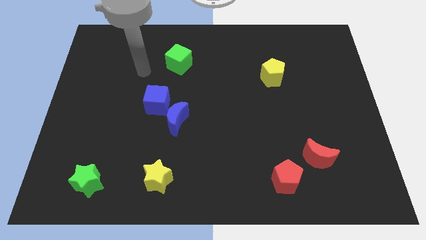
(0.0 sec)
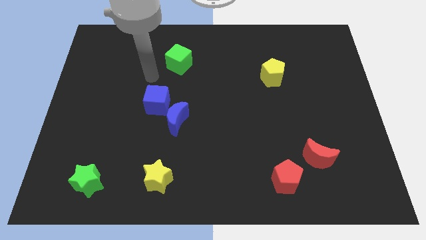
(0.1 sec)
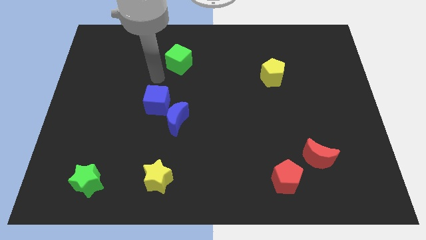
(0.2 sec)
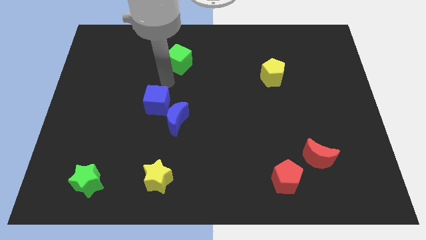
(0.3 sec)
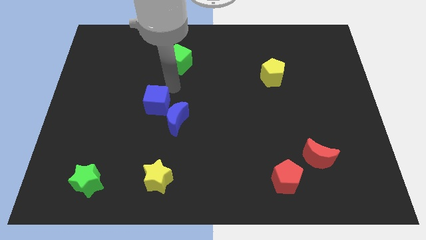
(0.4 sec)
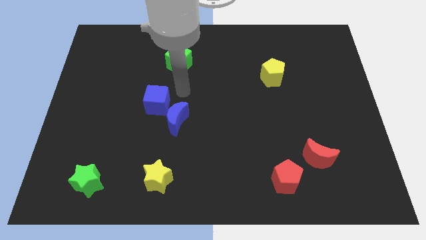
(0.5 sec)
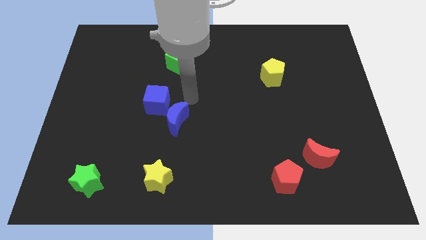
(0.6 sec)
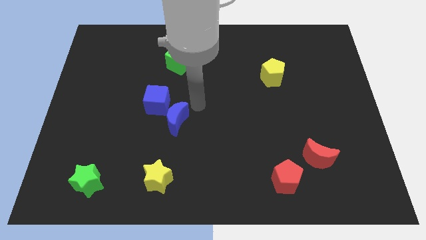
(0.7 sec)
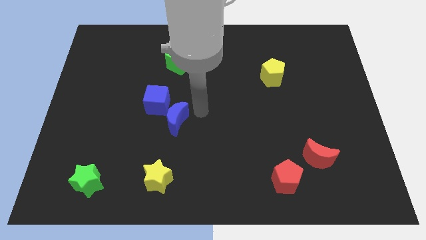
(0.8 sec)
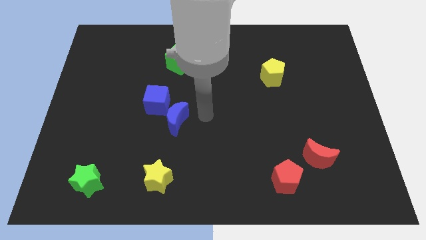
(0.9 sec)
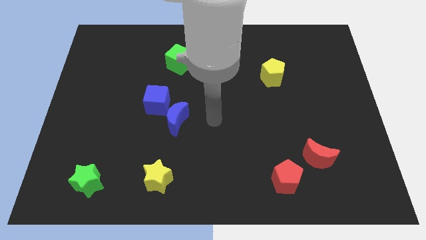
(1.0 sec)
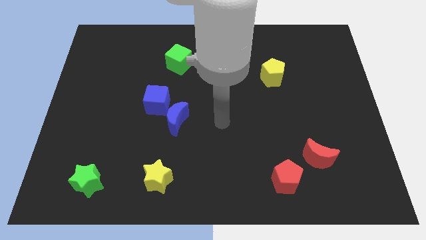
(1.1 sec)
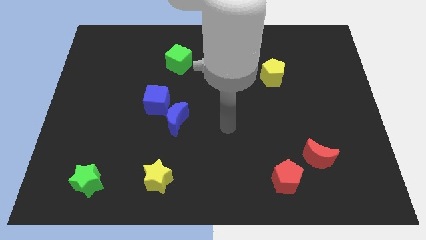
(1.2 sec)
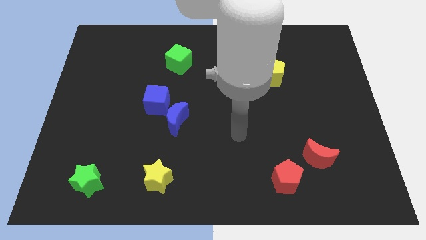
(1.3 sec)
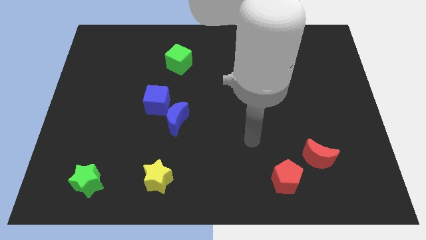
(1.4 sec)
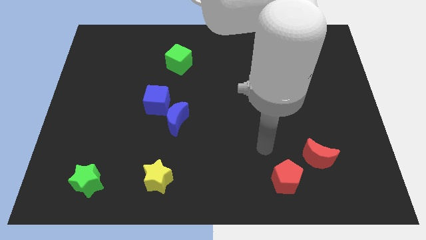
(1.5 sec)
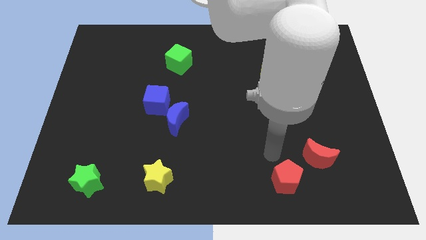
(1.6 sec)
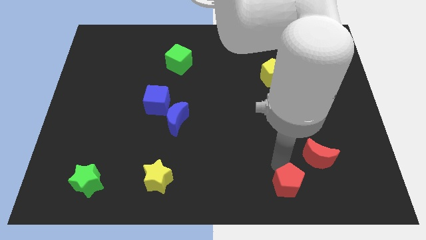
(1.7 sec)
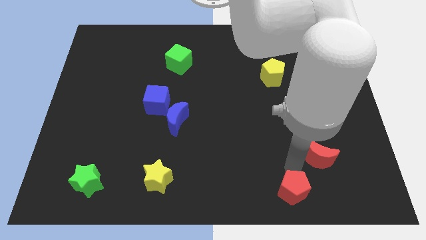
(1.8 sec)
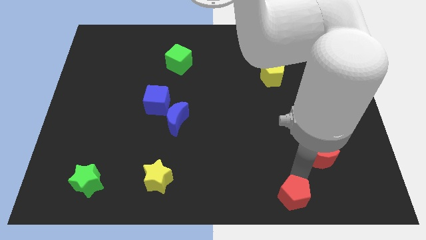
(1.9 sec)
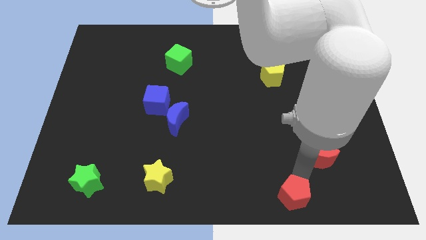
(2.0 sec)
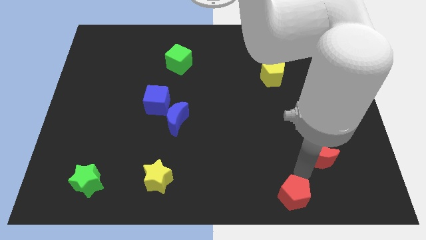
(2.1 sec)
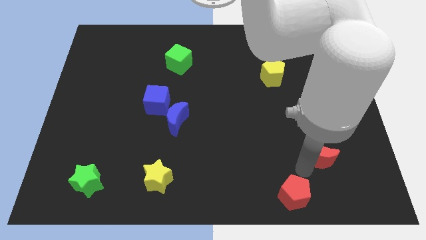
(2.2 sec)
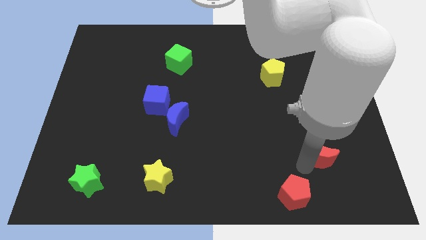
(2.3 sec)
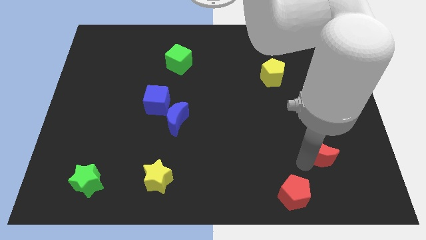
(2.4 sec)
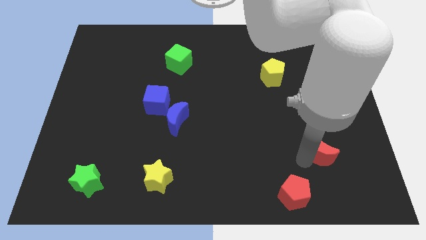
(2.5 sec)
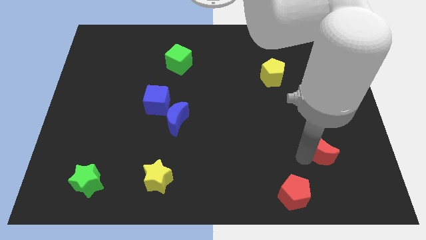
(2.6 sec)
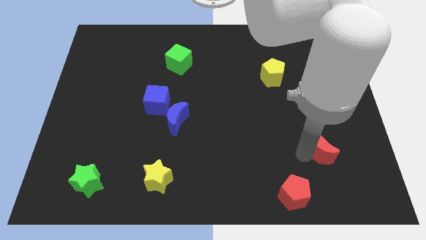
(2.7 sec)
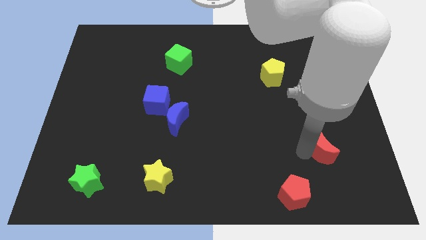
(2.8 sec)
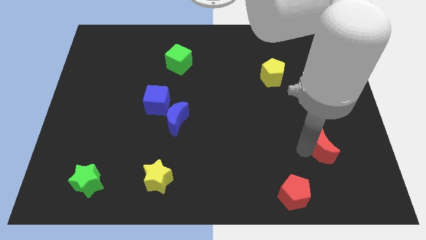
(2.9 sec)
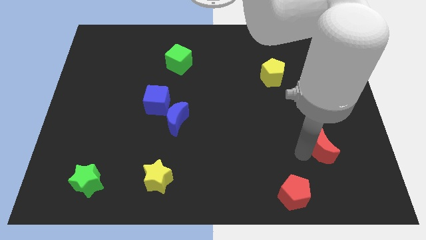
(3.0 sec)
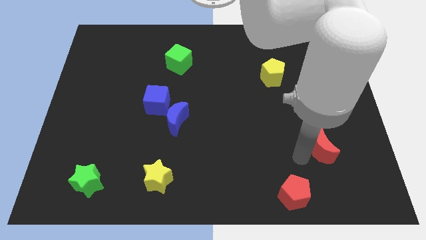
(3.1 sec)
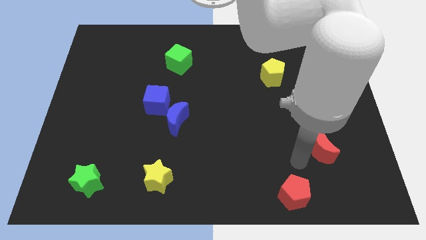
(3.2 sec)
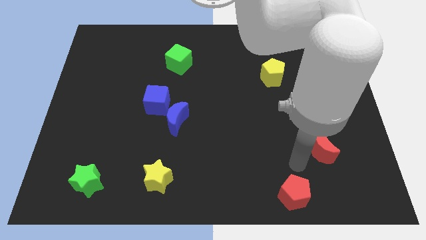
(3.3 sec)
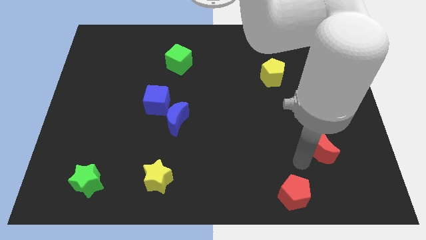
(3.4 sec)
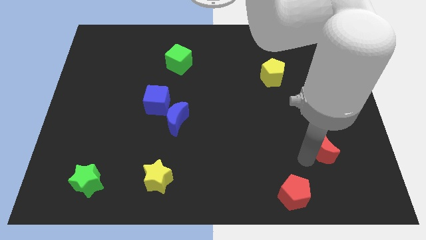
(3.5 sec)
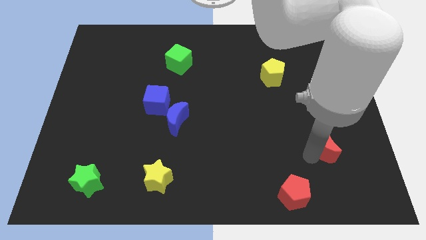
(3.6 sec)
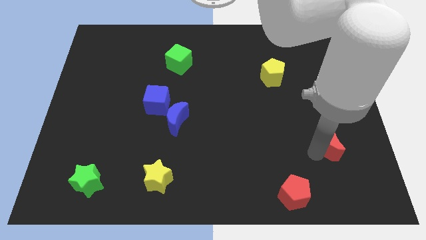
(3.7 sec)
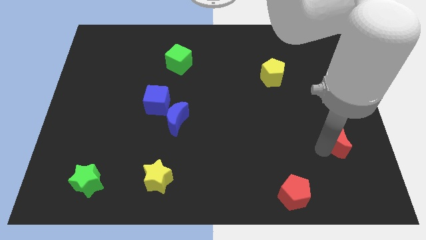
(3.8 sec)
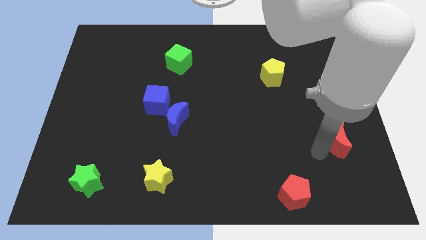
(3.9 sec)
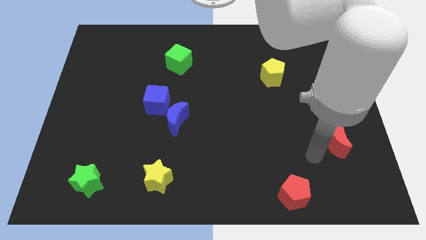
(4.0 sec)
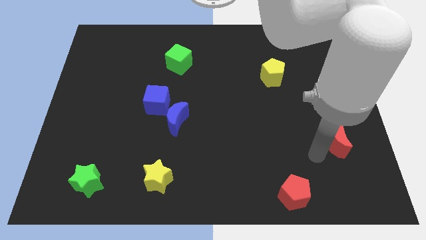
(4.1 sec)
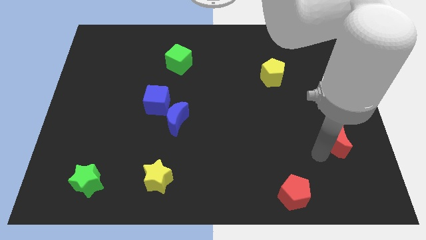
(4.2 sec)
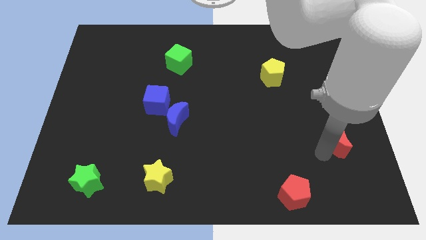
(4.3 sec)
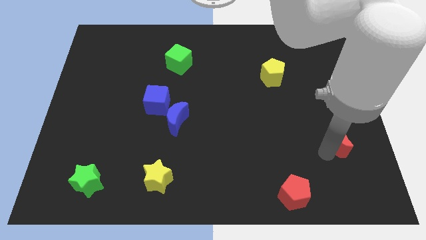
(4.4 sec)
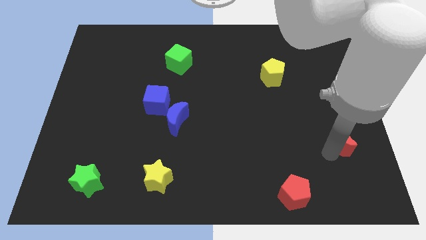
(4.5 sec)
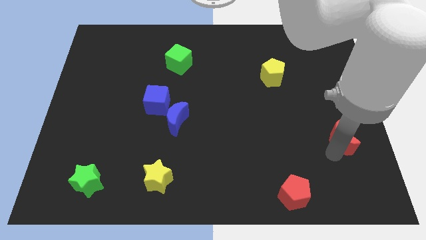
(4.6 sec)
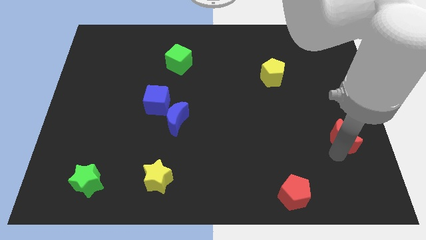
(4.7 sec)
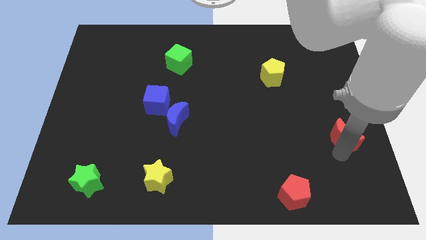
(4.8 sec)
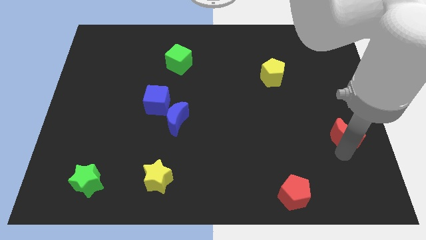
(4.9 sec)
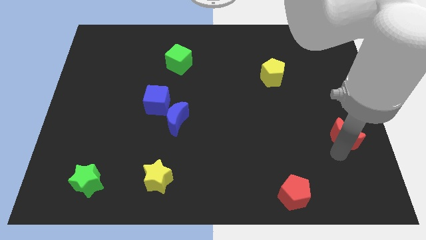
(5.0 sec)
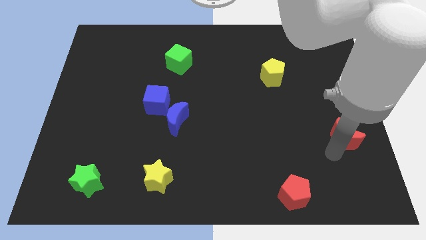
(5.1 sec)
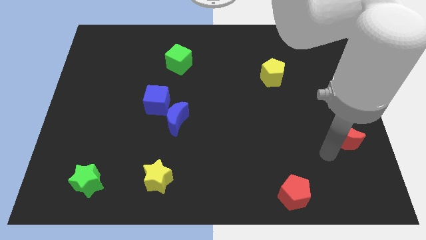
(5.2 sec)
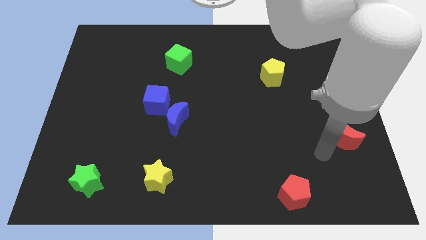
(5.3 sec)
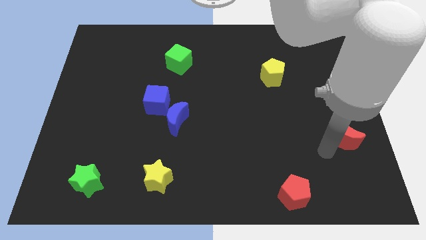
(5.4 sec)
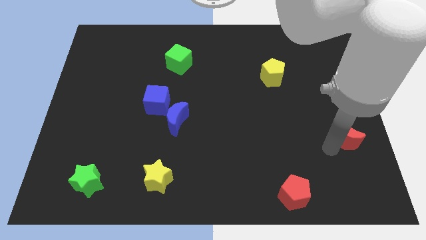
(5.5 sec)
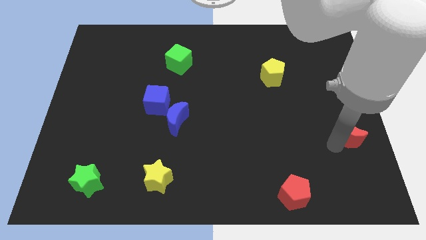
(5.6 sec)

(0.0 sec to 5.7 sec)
slide the red moon to the right side of the board

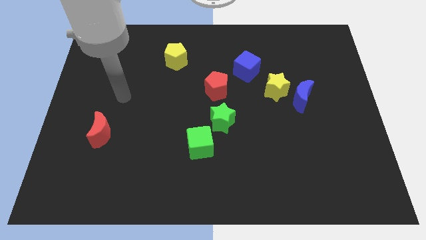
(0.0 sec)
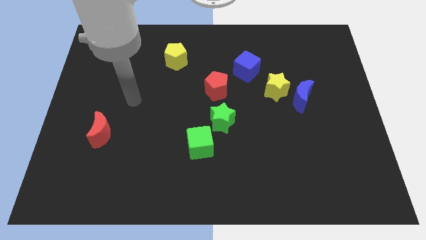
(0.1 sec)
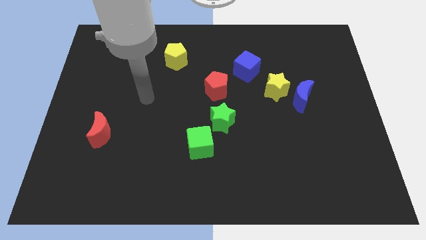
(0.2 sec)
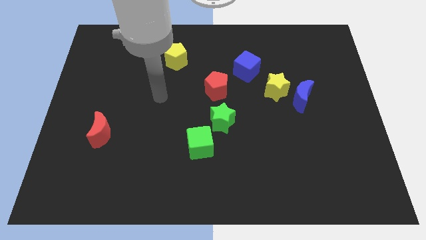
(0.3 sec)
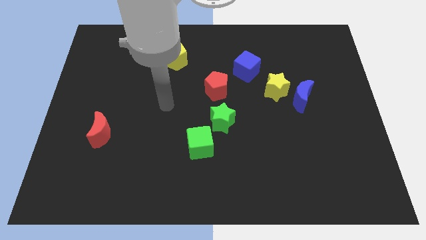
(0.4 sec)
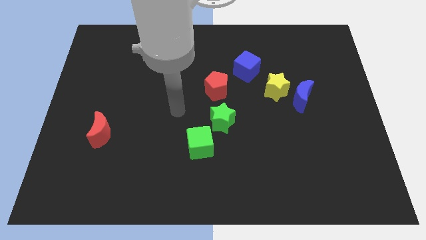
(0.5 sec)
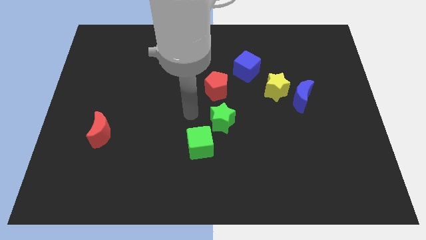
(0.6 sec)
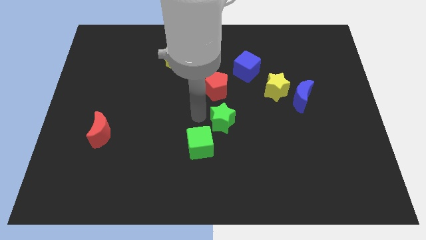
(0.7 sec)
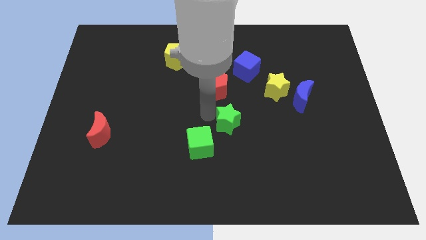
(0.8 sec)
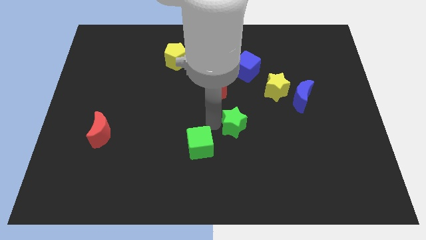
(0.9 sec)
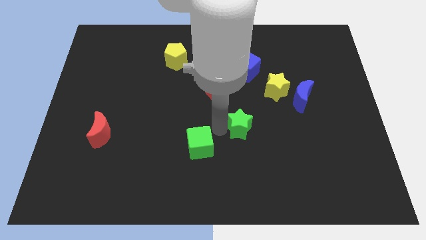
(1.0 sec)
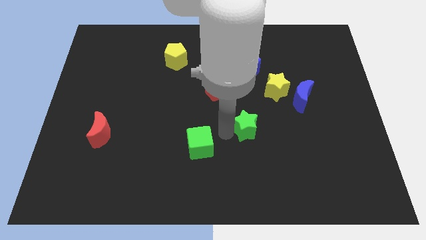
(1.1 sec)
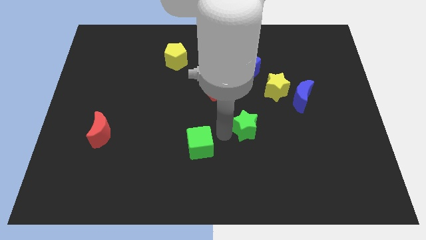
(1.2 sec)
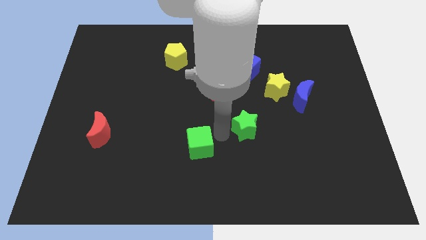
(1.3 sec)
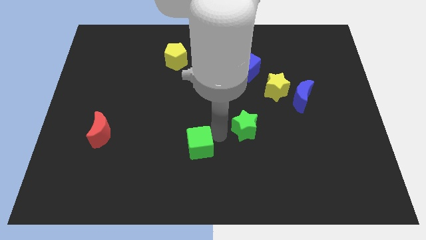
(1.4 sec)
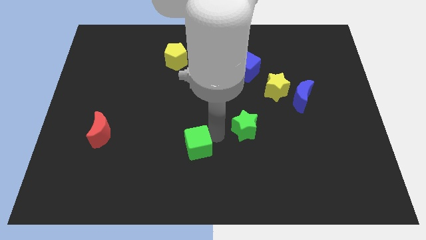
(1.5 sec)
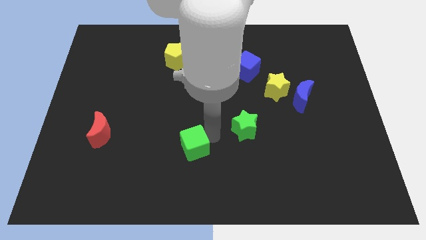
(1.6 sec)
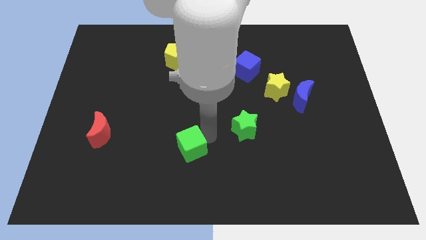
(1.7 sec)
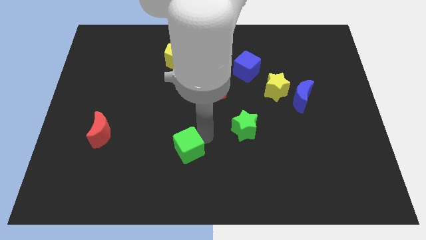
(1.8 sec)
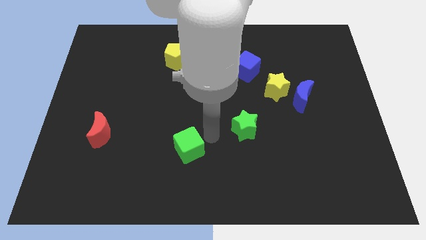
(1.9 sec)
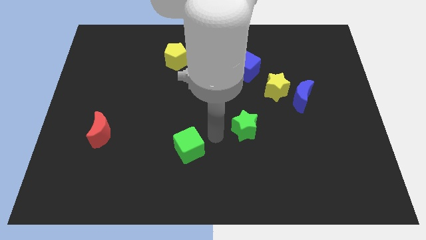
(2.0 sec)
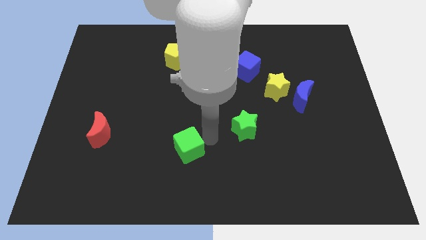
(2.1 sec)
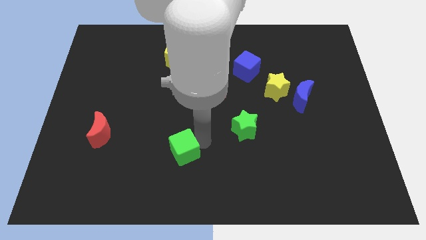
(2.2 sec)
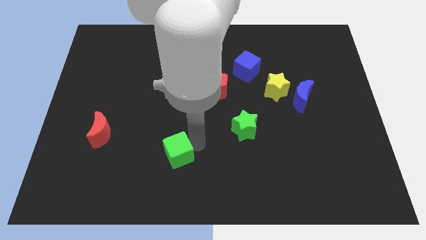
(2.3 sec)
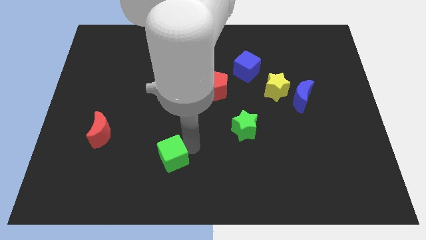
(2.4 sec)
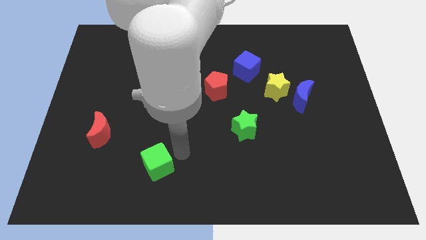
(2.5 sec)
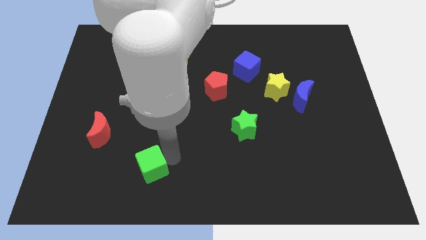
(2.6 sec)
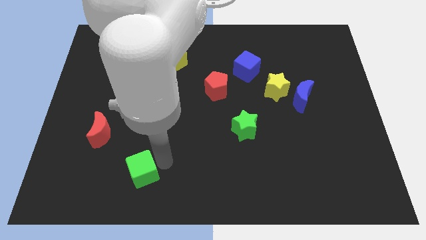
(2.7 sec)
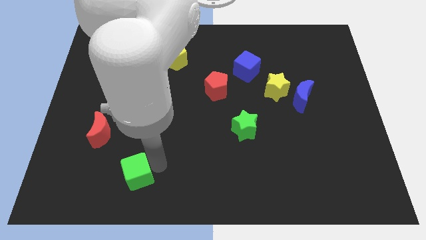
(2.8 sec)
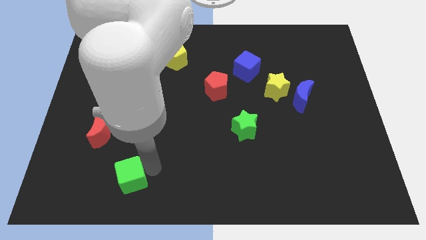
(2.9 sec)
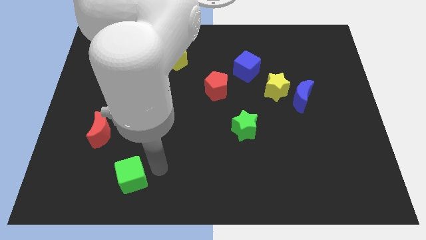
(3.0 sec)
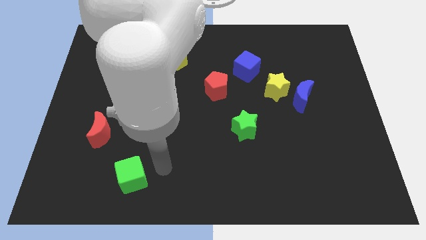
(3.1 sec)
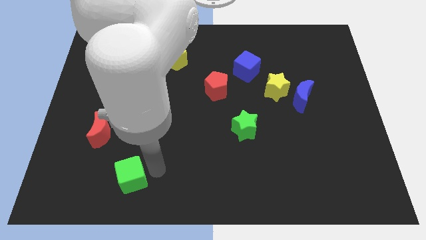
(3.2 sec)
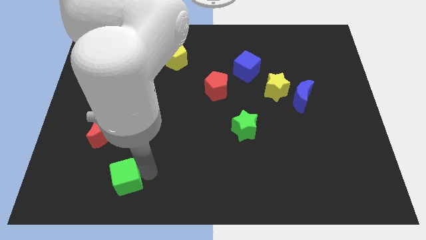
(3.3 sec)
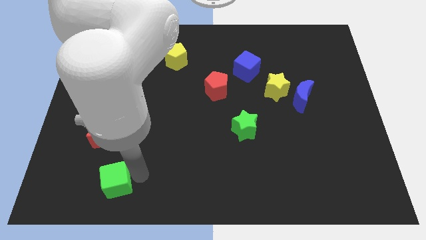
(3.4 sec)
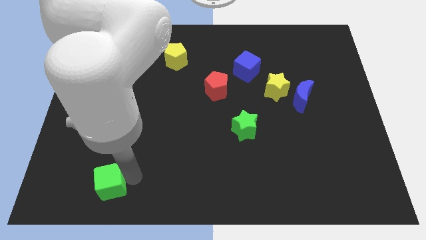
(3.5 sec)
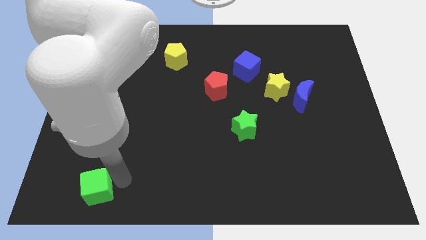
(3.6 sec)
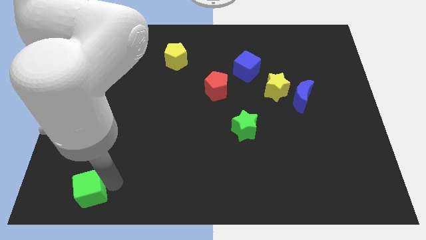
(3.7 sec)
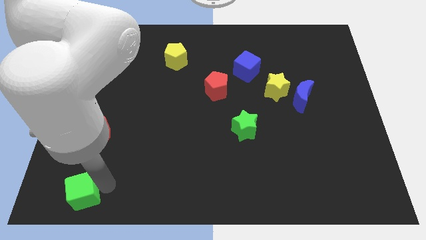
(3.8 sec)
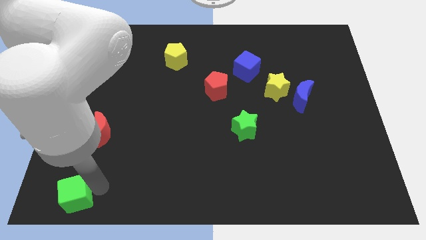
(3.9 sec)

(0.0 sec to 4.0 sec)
put the green cube to the bottom left corner
